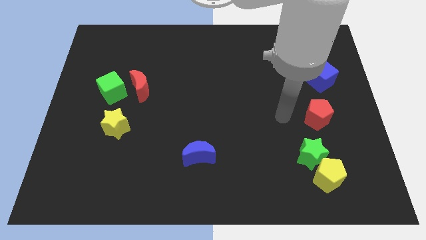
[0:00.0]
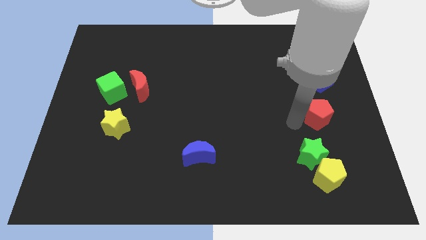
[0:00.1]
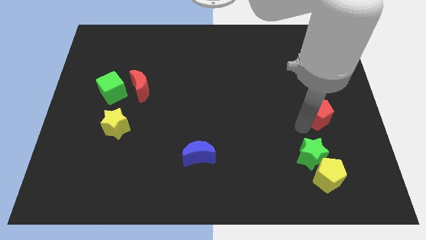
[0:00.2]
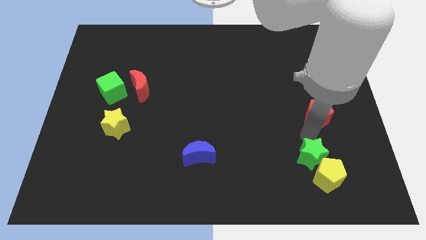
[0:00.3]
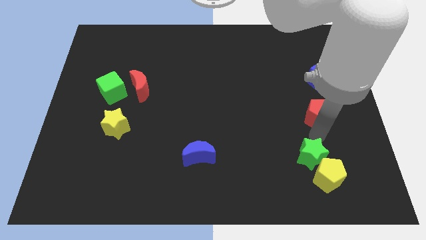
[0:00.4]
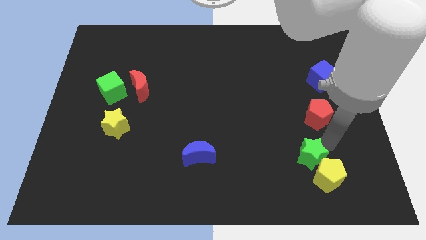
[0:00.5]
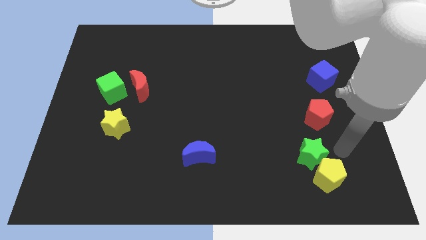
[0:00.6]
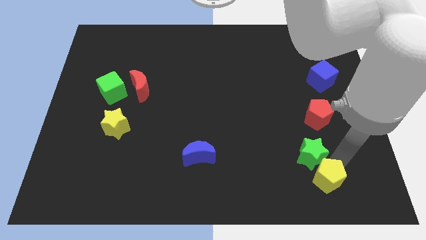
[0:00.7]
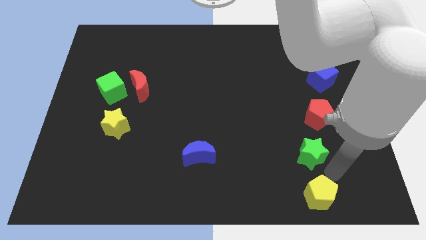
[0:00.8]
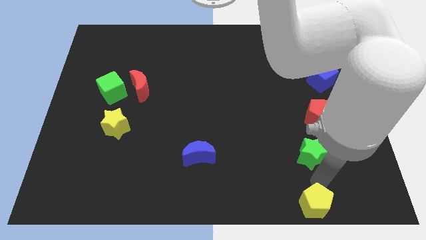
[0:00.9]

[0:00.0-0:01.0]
move the green star away from the yellow pentagon

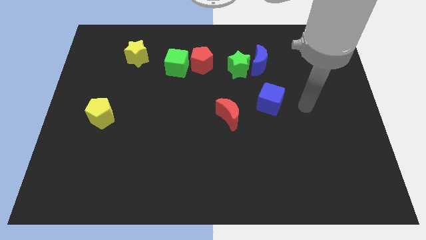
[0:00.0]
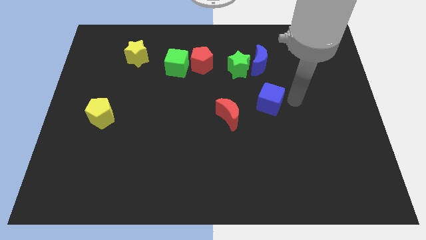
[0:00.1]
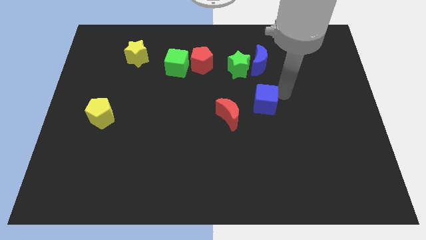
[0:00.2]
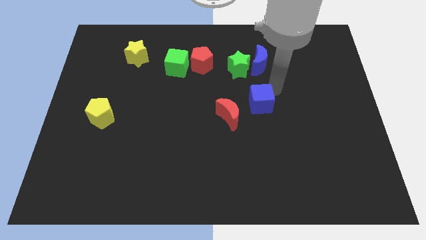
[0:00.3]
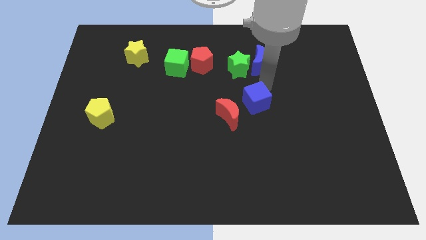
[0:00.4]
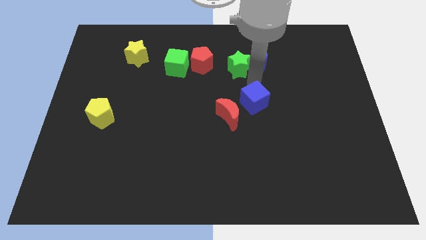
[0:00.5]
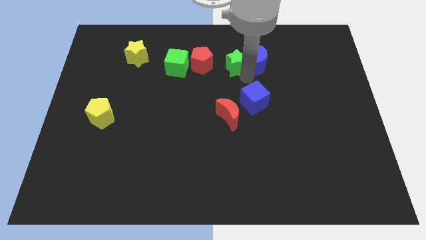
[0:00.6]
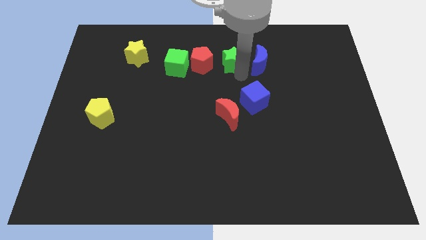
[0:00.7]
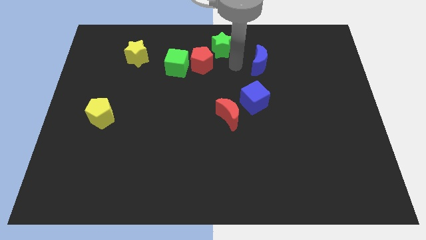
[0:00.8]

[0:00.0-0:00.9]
move the blue moon away from the green star

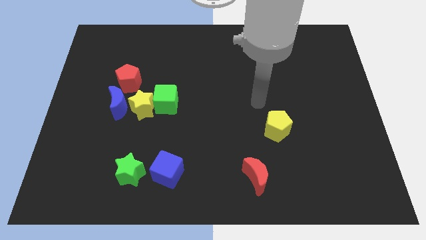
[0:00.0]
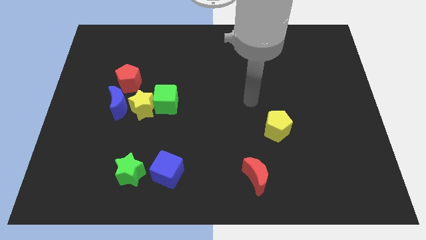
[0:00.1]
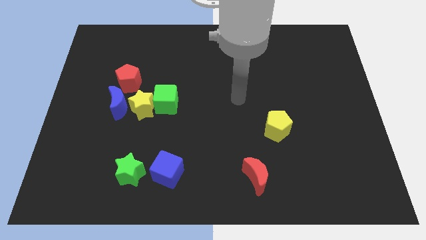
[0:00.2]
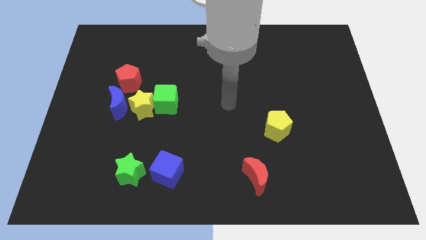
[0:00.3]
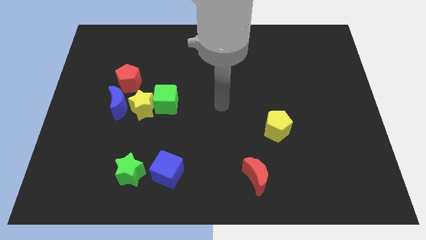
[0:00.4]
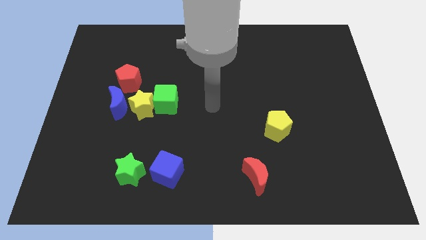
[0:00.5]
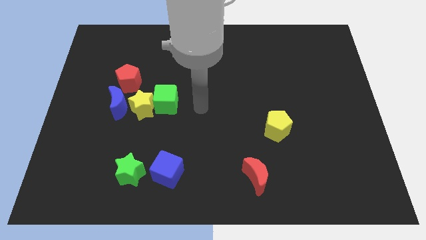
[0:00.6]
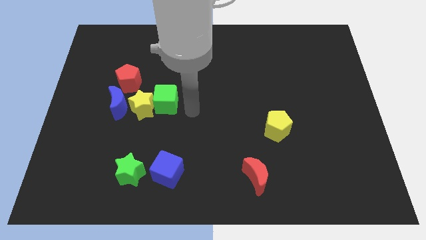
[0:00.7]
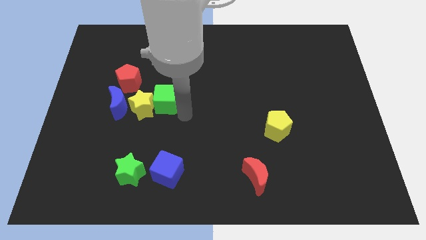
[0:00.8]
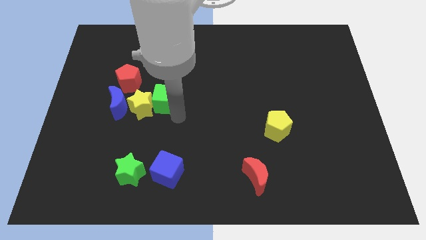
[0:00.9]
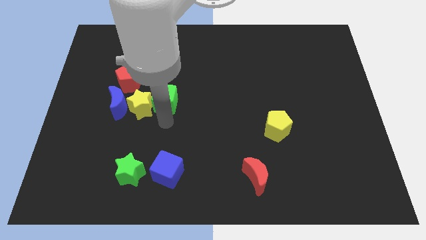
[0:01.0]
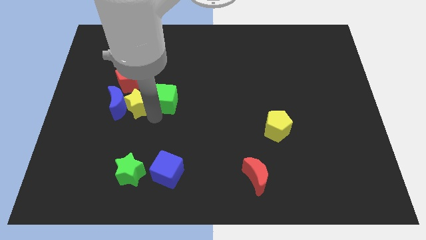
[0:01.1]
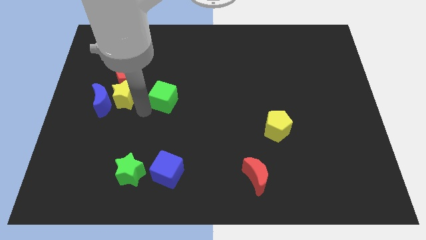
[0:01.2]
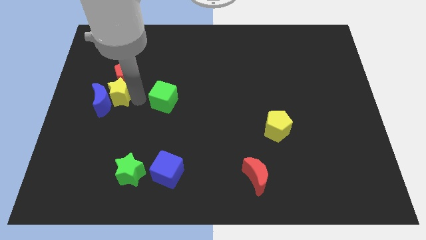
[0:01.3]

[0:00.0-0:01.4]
move the green cube away from the yellow star

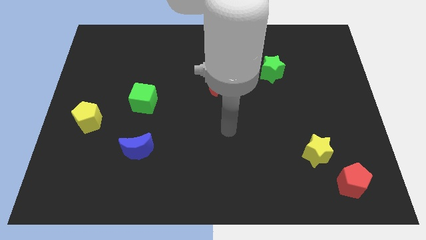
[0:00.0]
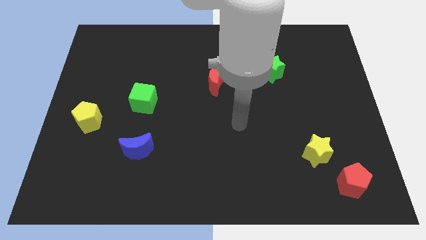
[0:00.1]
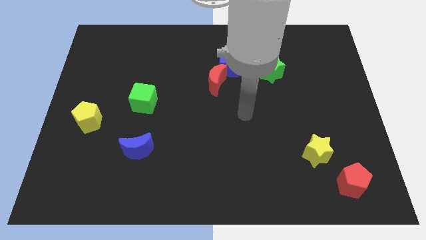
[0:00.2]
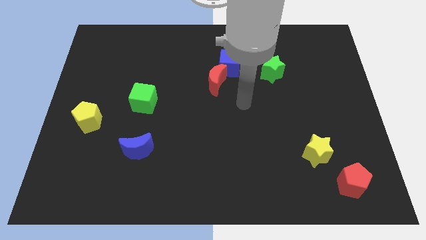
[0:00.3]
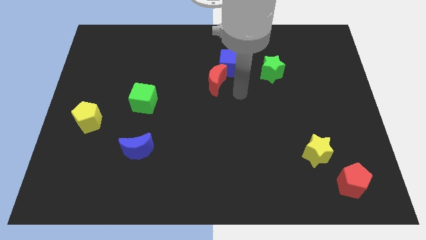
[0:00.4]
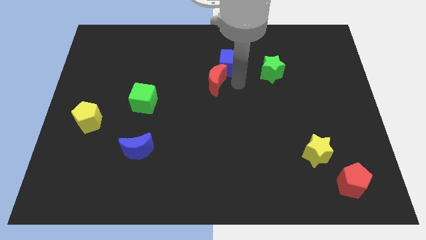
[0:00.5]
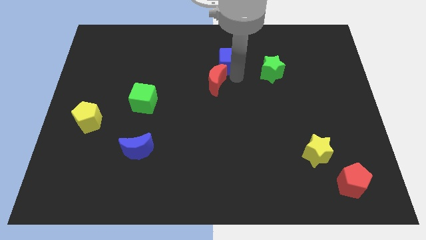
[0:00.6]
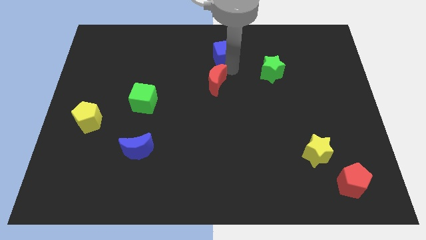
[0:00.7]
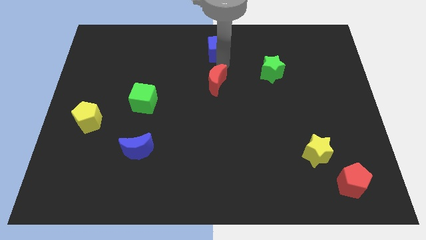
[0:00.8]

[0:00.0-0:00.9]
pull the red moon apart from the blue cube

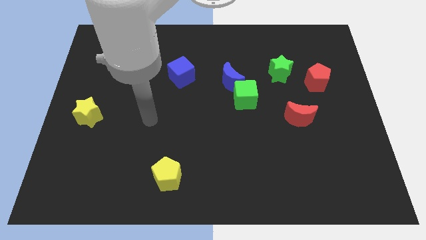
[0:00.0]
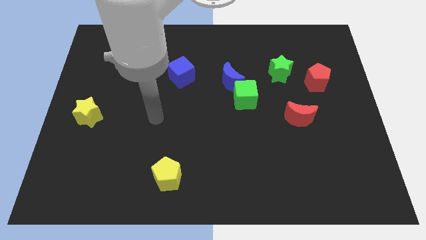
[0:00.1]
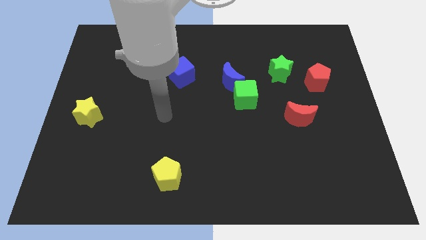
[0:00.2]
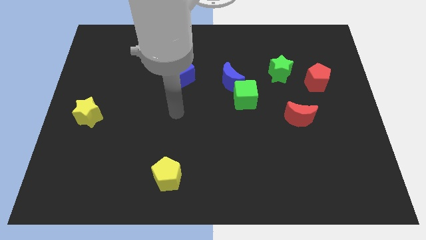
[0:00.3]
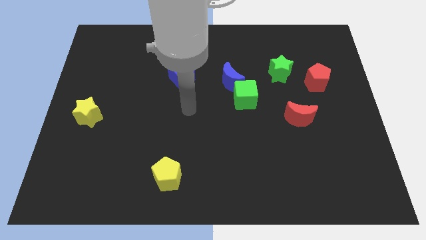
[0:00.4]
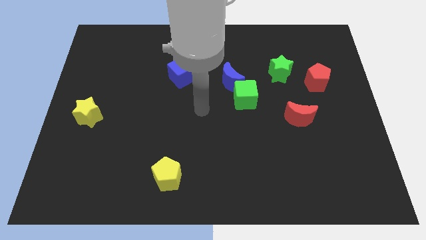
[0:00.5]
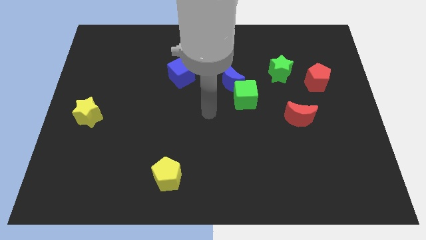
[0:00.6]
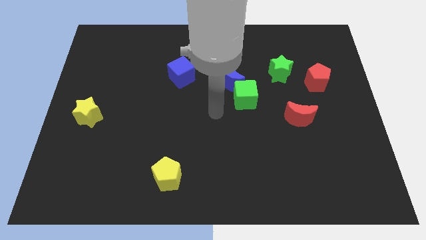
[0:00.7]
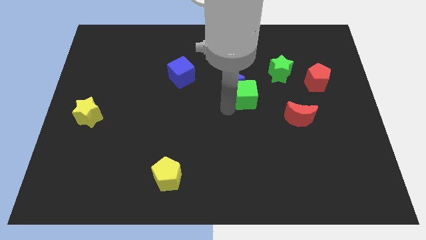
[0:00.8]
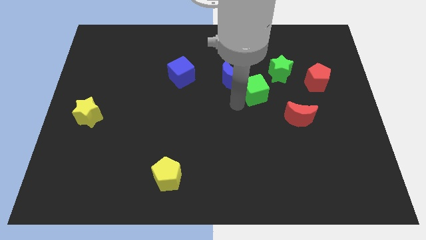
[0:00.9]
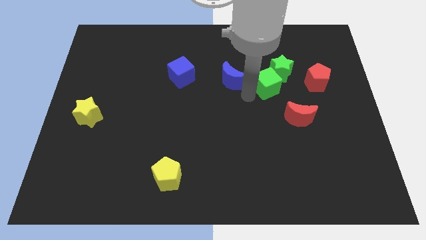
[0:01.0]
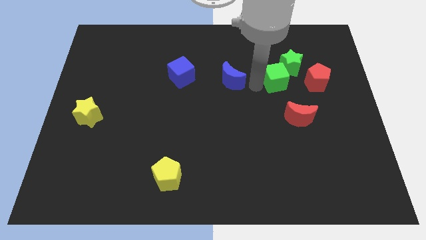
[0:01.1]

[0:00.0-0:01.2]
separate the blue moon from the green cube

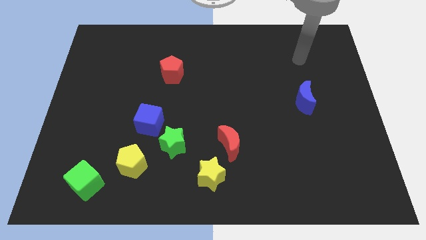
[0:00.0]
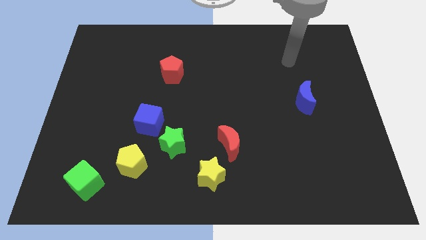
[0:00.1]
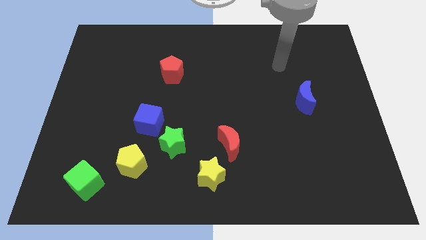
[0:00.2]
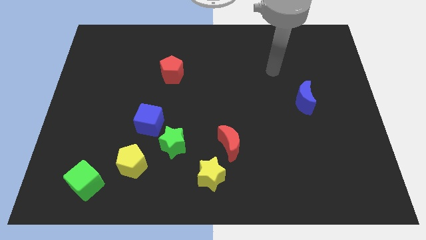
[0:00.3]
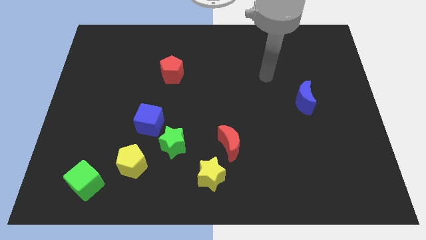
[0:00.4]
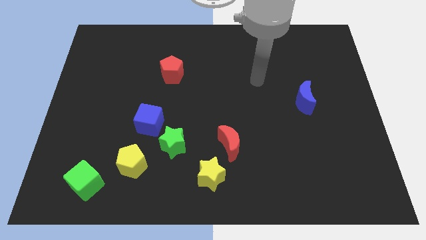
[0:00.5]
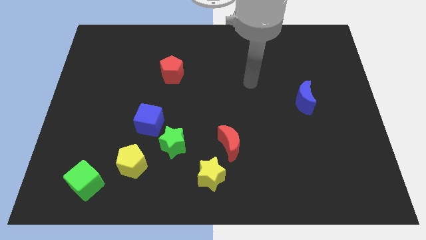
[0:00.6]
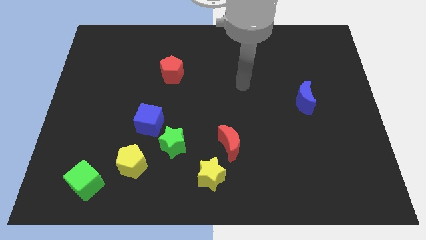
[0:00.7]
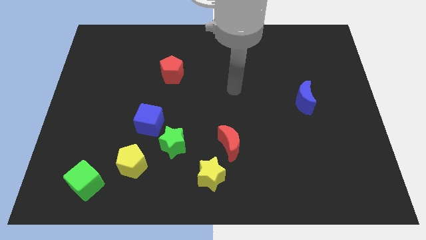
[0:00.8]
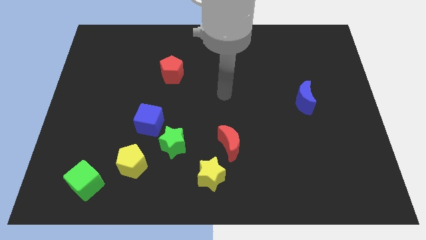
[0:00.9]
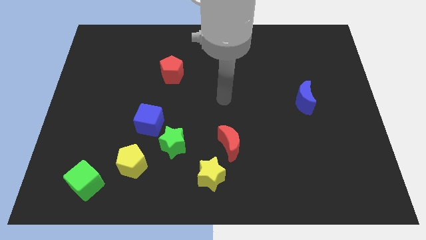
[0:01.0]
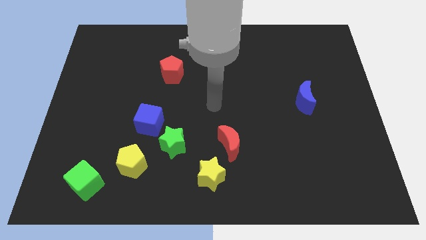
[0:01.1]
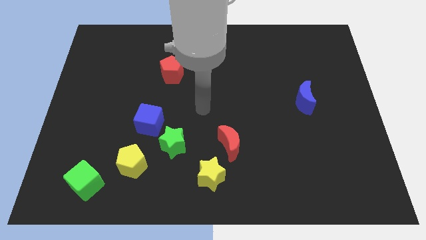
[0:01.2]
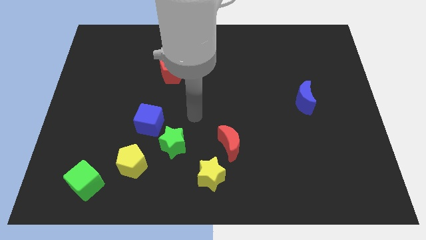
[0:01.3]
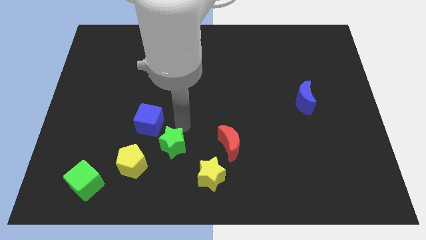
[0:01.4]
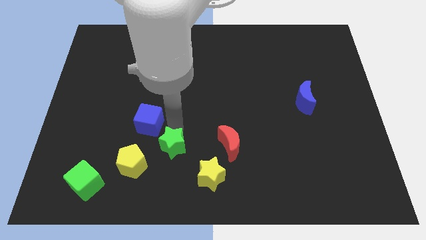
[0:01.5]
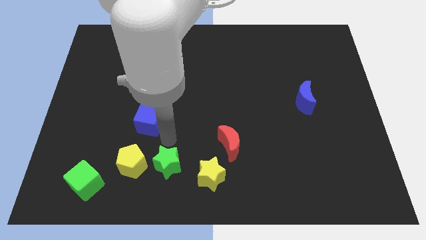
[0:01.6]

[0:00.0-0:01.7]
pull the blue cube apart from the green star

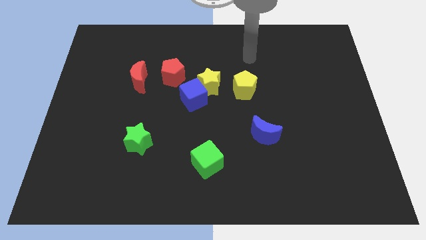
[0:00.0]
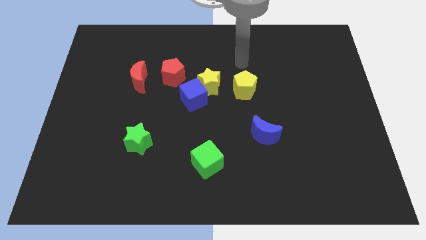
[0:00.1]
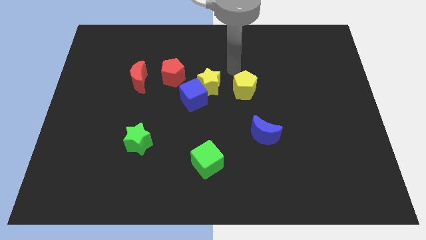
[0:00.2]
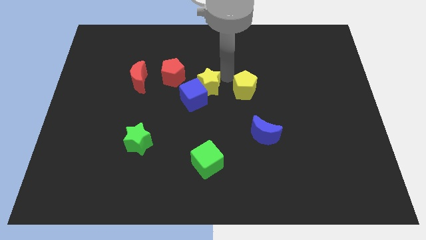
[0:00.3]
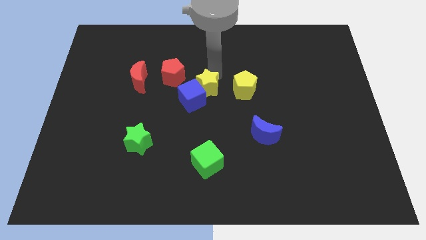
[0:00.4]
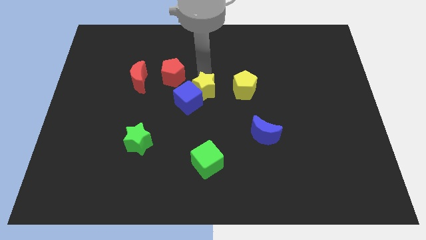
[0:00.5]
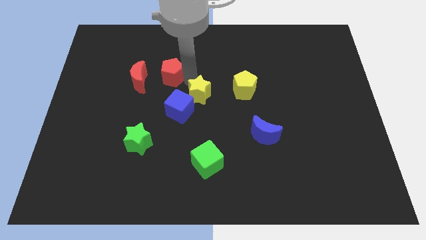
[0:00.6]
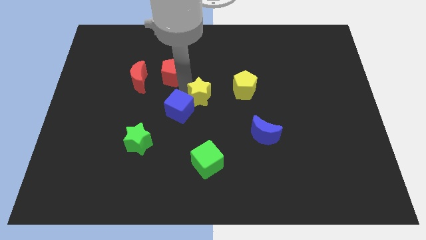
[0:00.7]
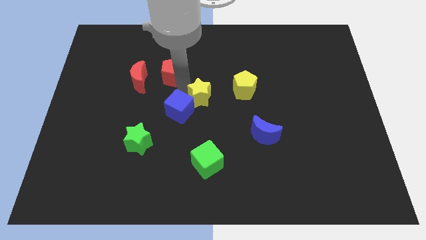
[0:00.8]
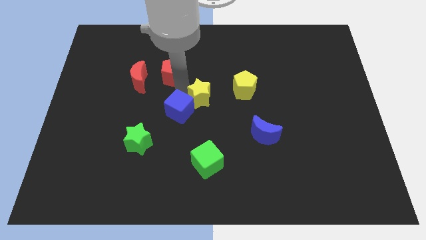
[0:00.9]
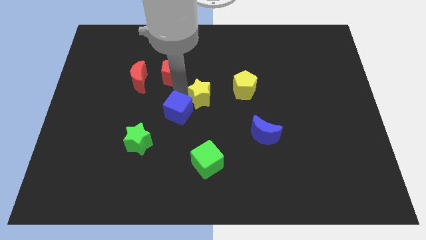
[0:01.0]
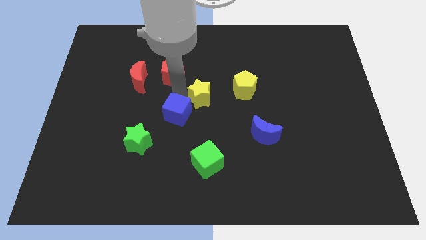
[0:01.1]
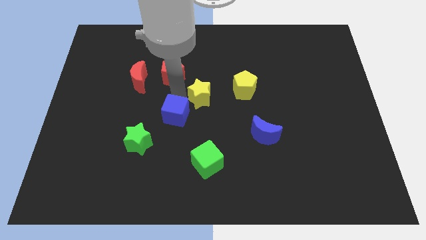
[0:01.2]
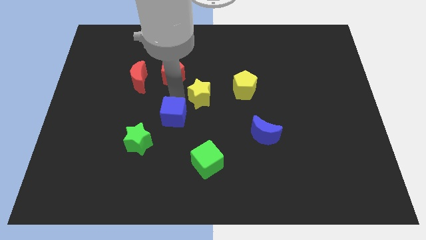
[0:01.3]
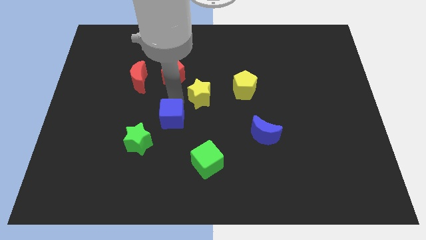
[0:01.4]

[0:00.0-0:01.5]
move the blue cube away from the yellow star and red pentagon

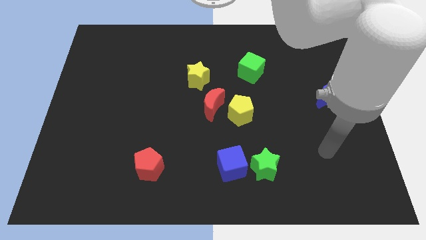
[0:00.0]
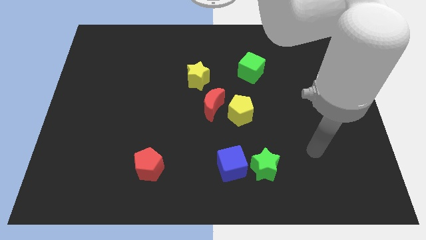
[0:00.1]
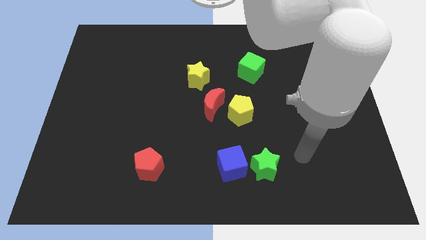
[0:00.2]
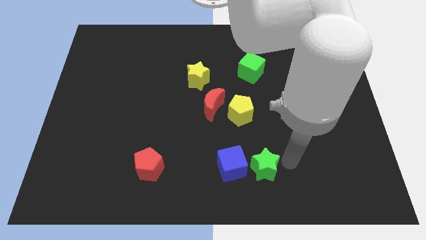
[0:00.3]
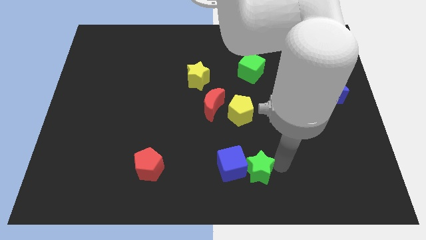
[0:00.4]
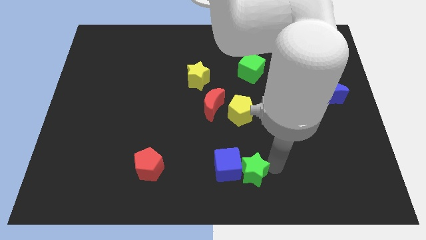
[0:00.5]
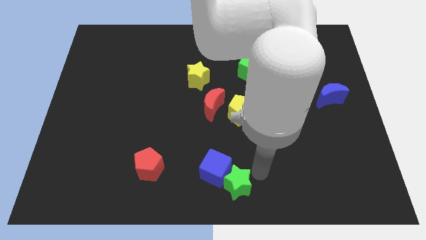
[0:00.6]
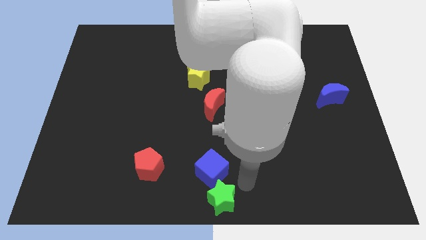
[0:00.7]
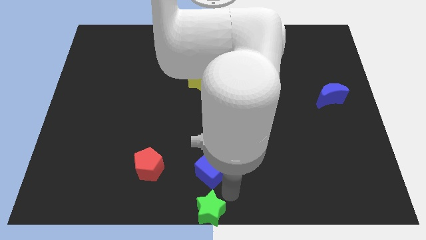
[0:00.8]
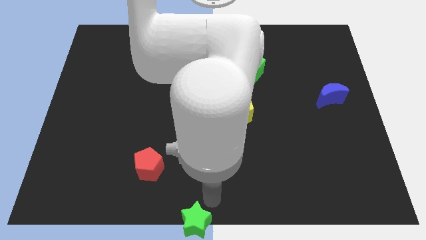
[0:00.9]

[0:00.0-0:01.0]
move the blue cube away from the green star
